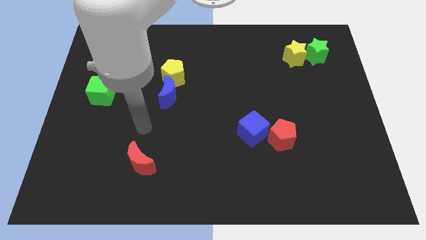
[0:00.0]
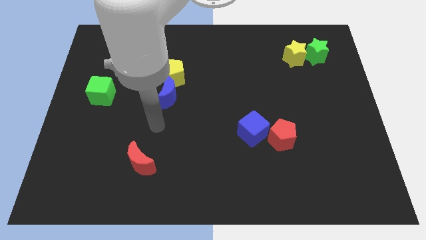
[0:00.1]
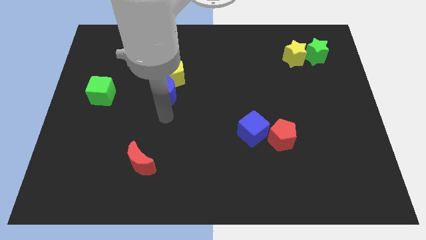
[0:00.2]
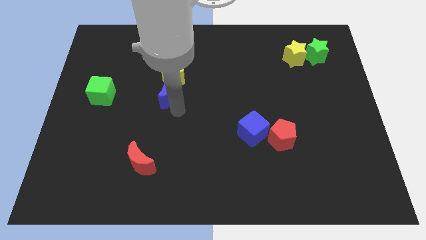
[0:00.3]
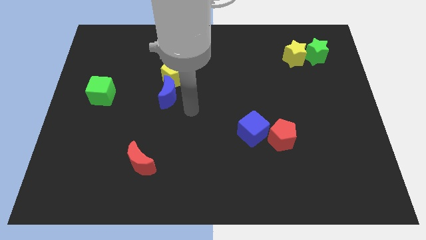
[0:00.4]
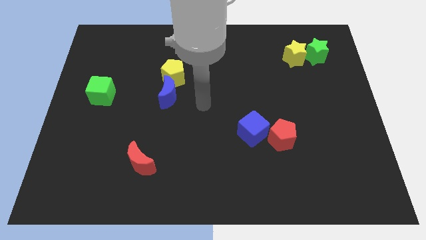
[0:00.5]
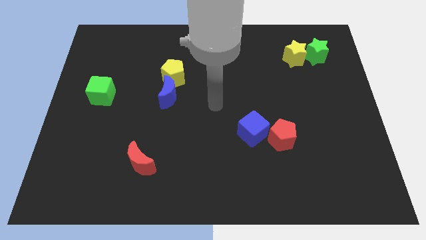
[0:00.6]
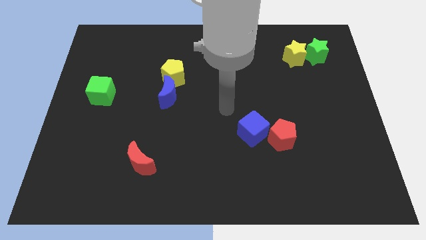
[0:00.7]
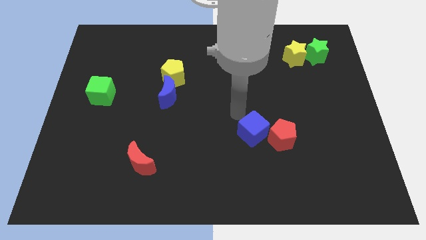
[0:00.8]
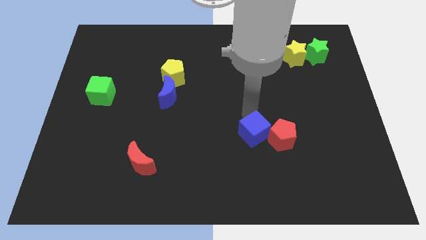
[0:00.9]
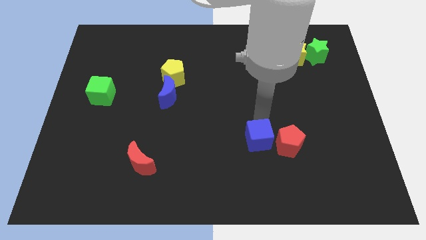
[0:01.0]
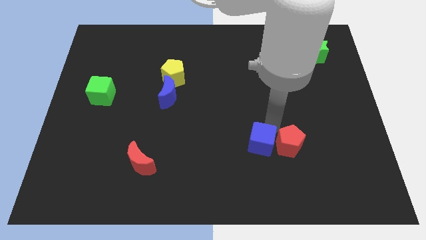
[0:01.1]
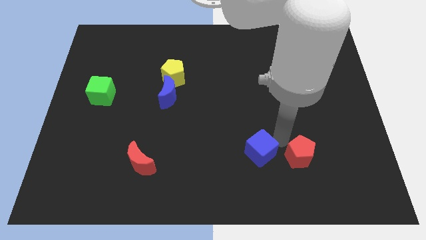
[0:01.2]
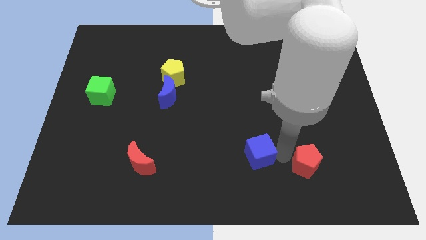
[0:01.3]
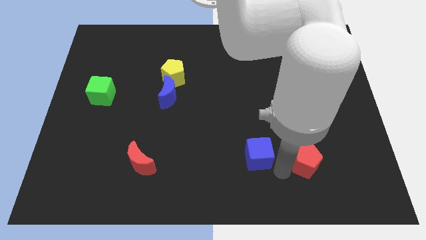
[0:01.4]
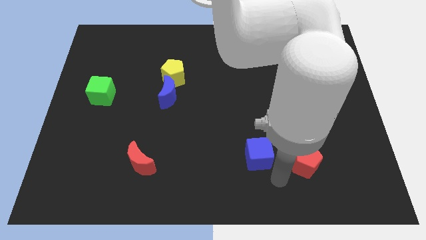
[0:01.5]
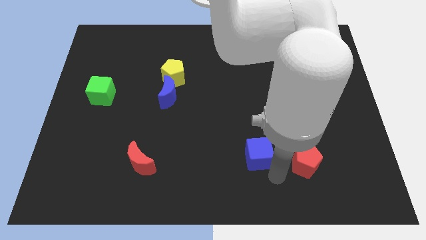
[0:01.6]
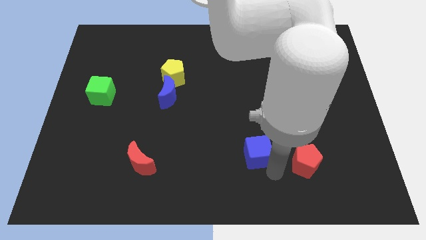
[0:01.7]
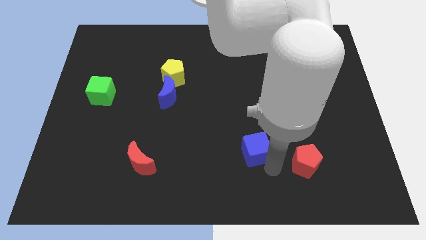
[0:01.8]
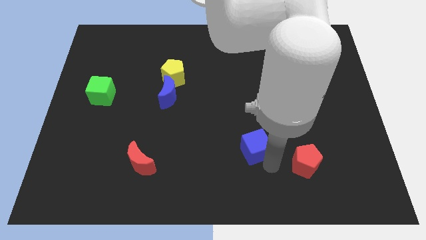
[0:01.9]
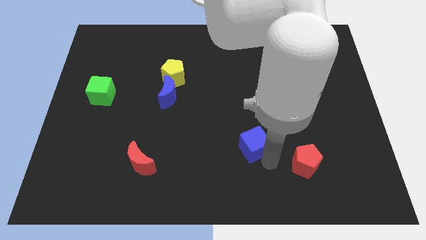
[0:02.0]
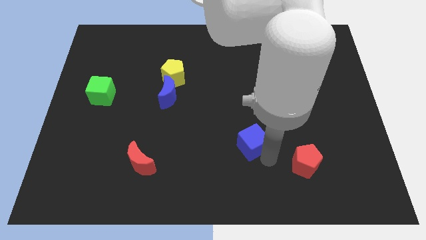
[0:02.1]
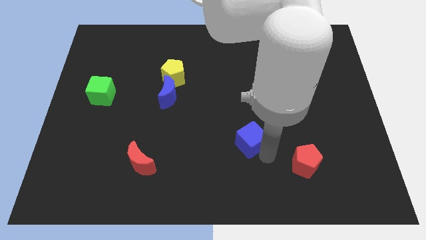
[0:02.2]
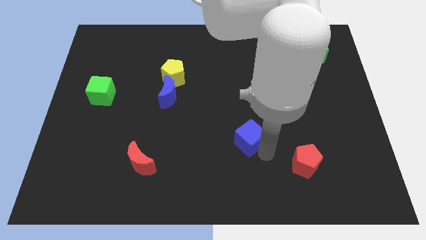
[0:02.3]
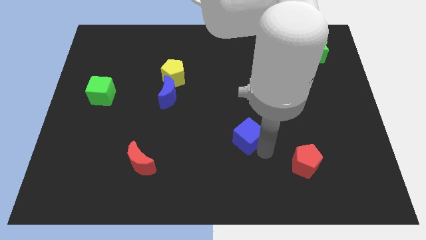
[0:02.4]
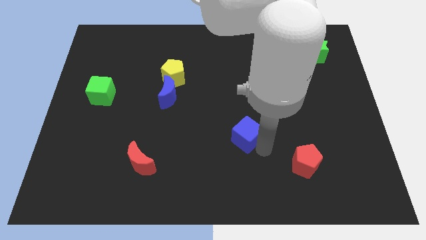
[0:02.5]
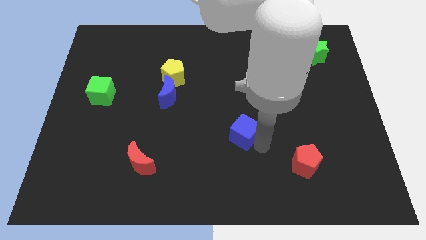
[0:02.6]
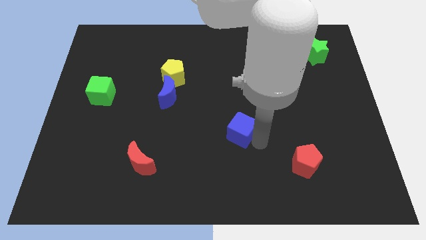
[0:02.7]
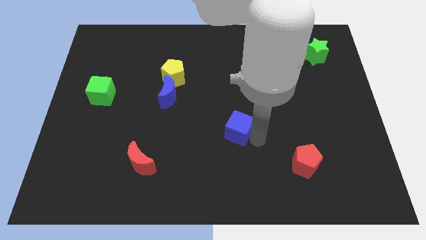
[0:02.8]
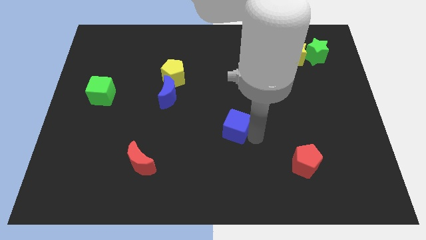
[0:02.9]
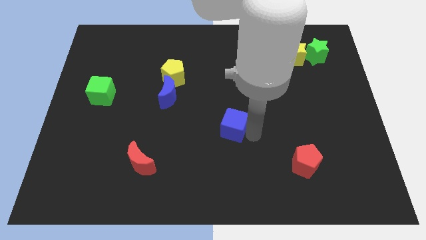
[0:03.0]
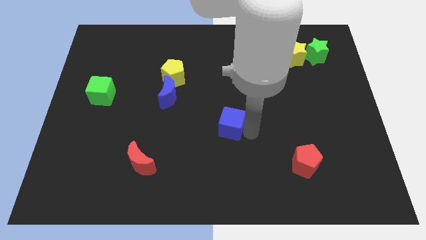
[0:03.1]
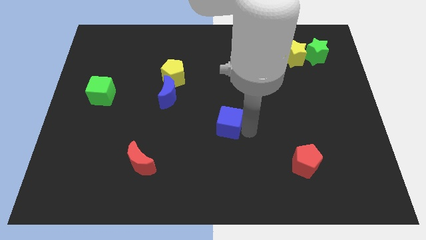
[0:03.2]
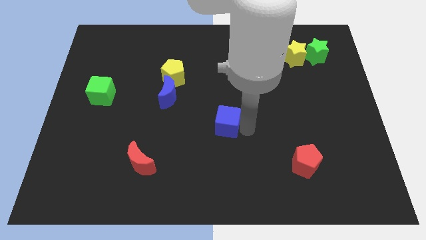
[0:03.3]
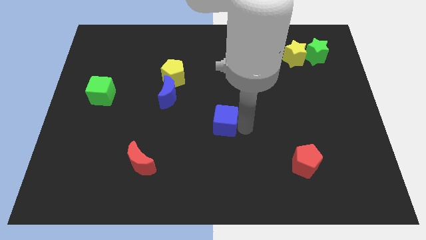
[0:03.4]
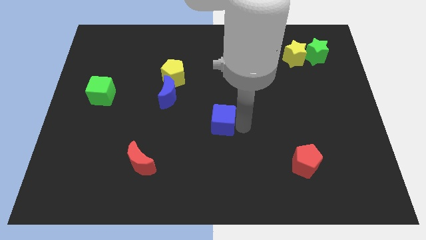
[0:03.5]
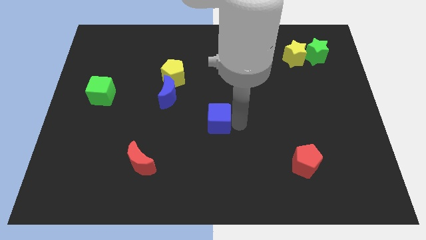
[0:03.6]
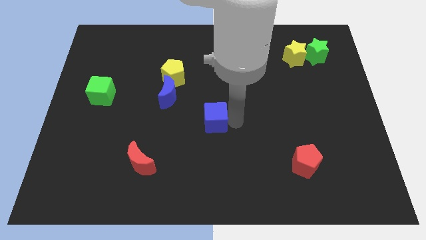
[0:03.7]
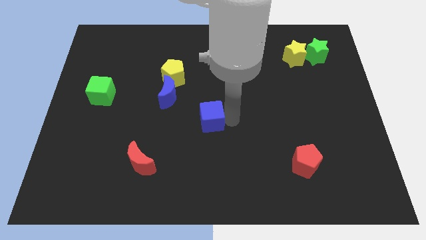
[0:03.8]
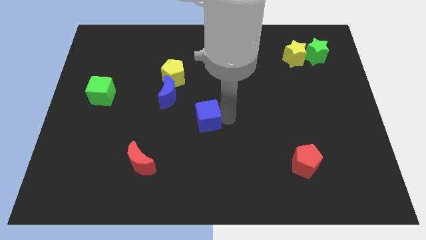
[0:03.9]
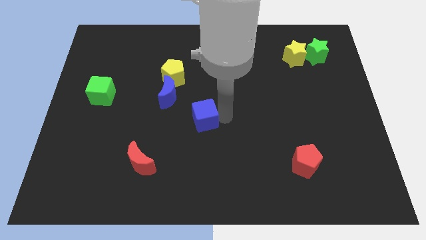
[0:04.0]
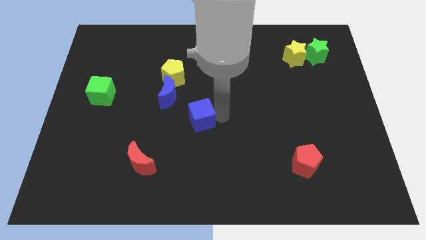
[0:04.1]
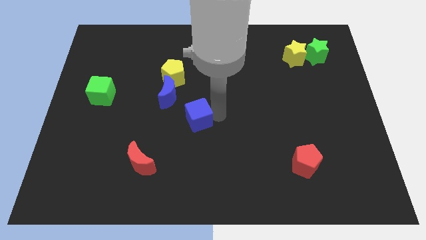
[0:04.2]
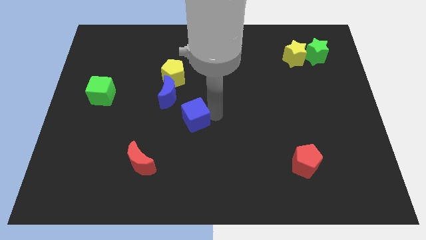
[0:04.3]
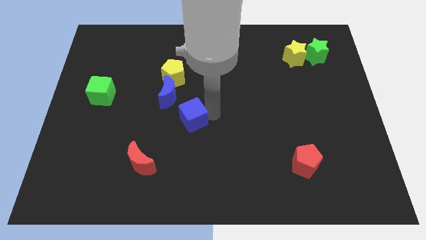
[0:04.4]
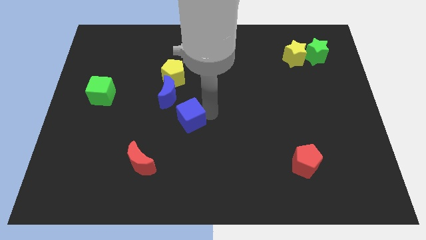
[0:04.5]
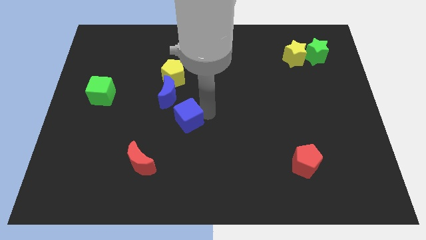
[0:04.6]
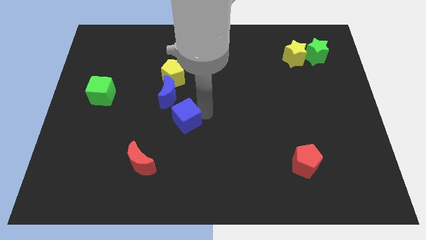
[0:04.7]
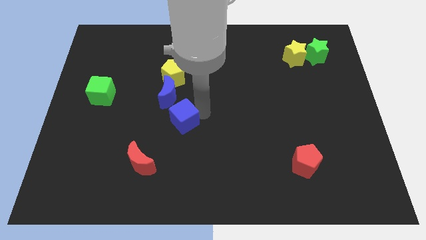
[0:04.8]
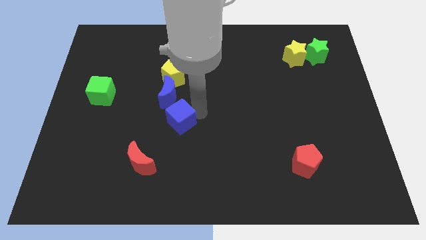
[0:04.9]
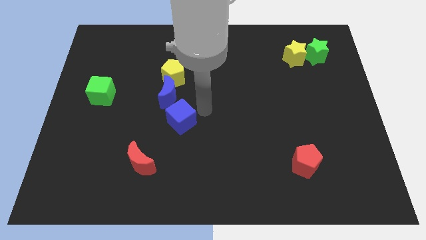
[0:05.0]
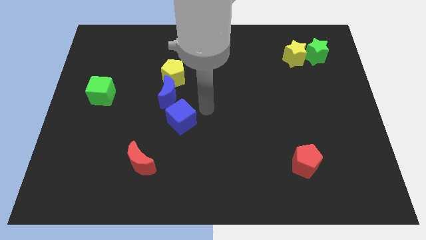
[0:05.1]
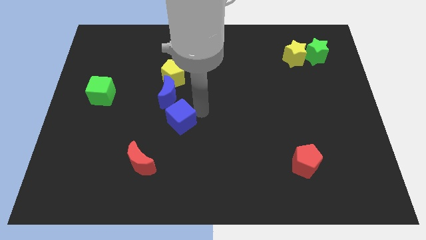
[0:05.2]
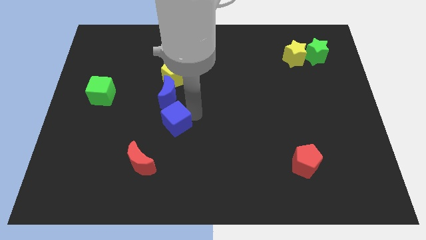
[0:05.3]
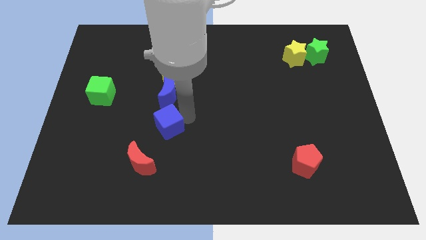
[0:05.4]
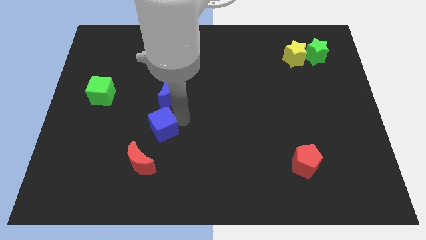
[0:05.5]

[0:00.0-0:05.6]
push the blue cube to the left

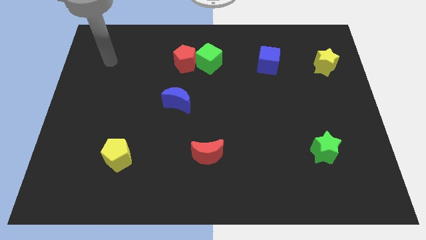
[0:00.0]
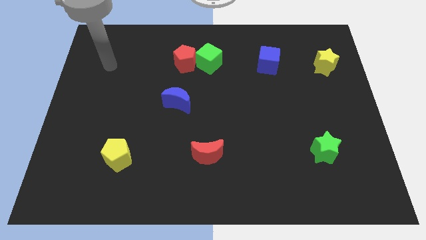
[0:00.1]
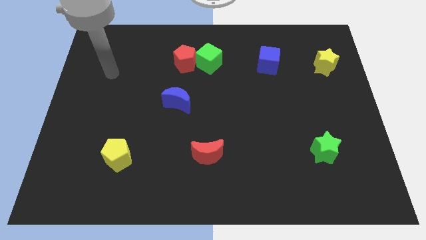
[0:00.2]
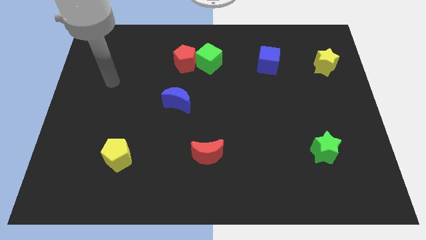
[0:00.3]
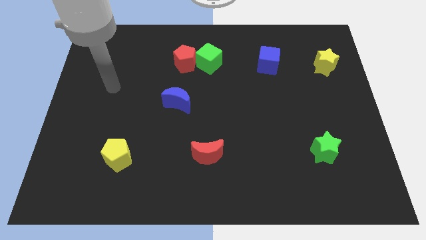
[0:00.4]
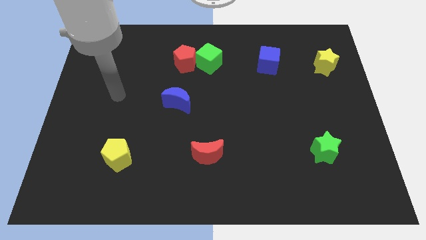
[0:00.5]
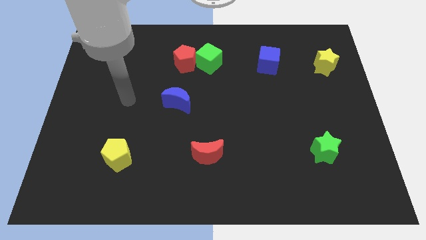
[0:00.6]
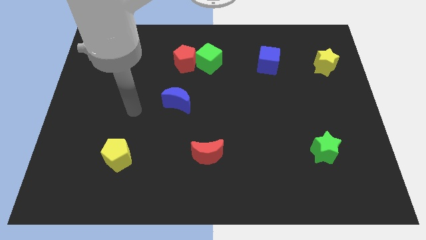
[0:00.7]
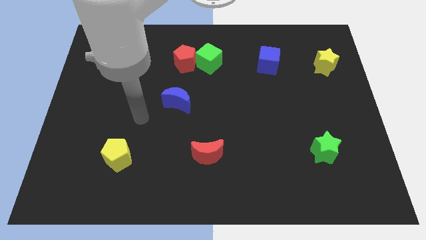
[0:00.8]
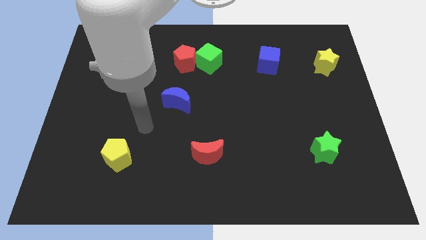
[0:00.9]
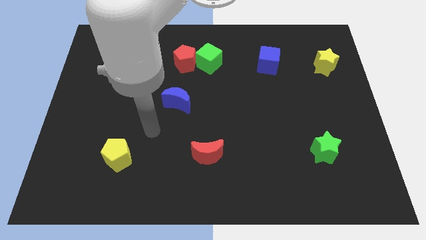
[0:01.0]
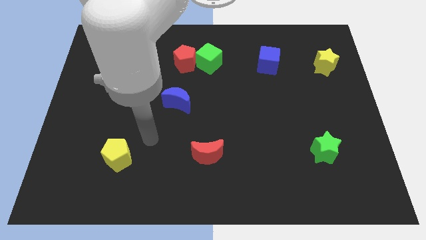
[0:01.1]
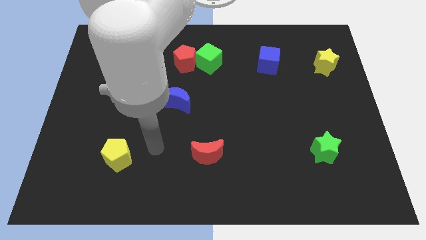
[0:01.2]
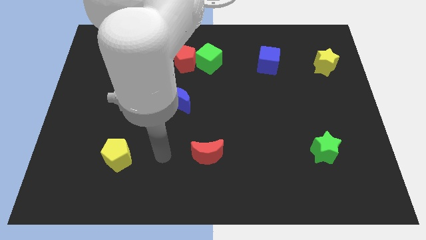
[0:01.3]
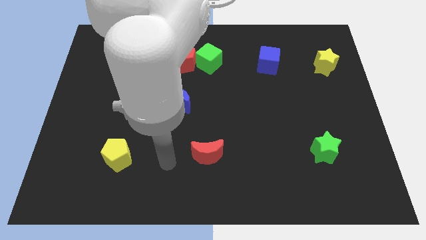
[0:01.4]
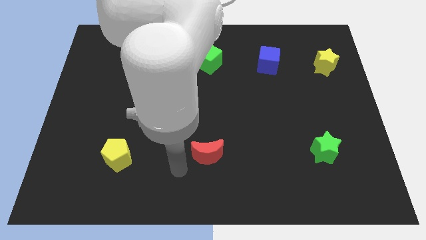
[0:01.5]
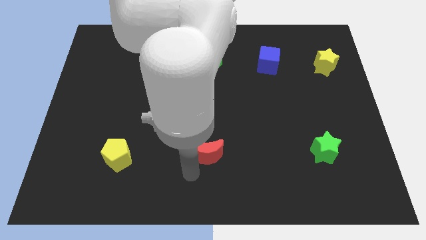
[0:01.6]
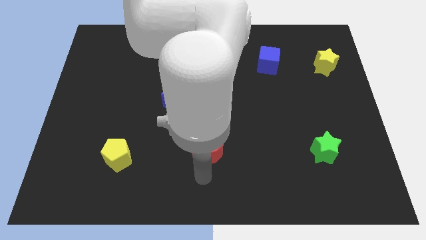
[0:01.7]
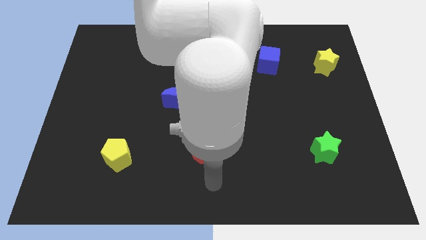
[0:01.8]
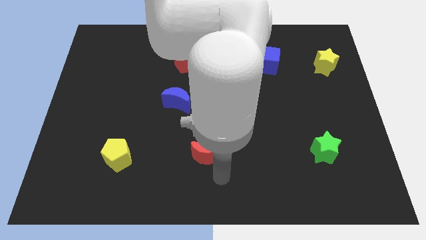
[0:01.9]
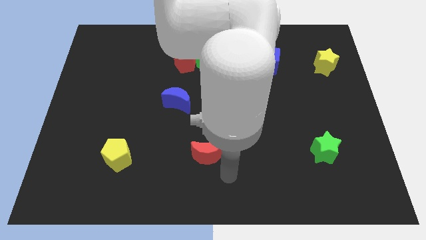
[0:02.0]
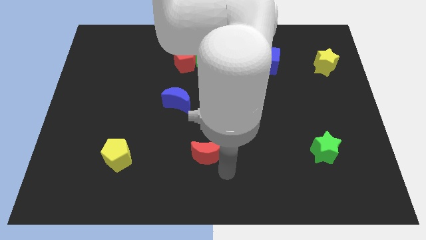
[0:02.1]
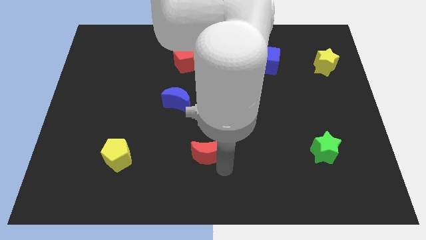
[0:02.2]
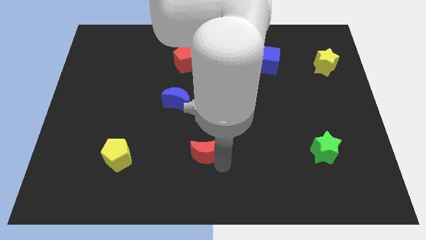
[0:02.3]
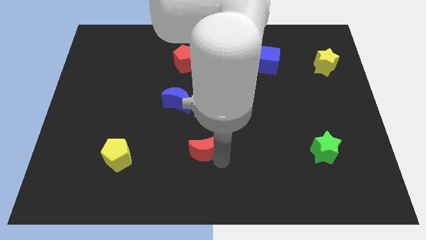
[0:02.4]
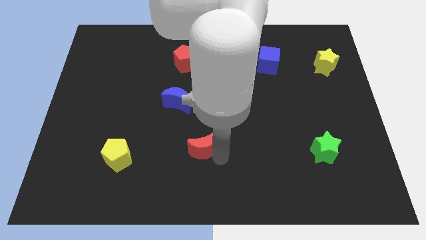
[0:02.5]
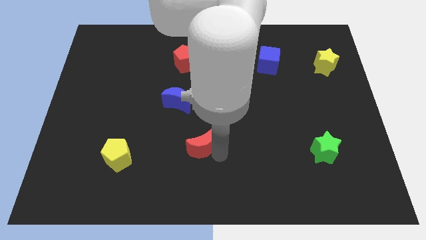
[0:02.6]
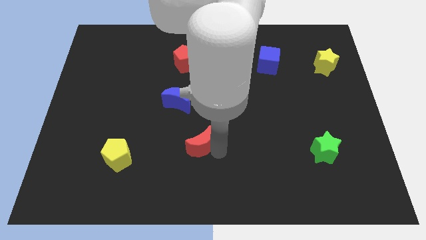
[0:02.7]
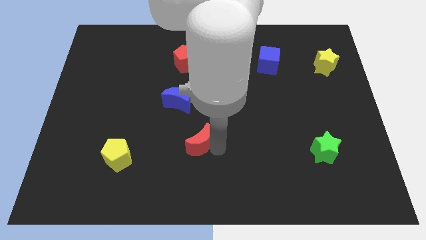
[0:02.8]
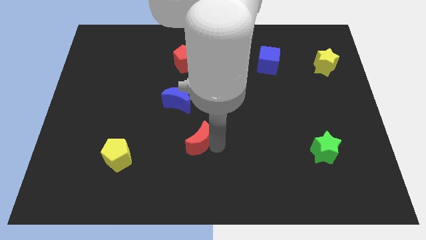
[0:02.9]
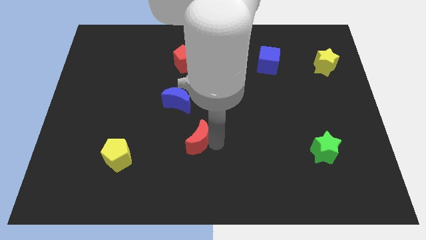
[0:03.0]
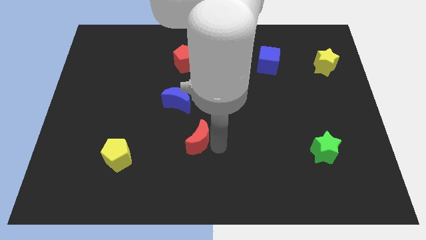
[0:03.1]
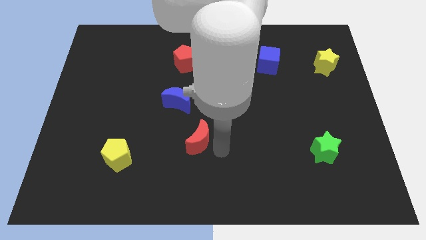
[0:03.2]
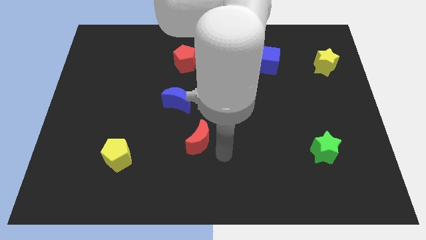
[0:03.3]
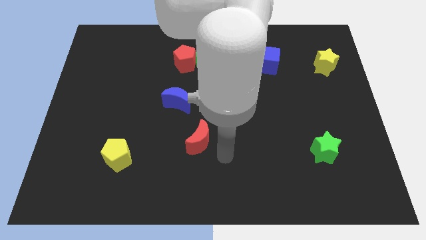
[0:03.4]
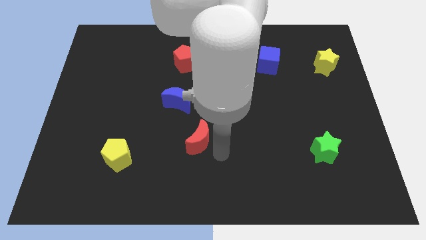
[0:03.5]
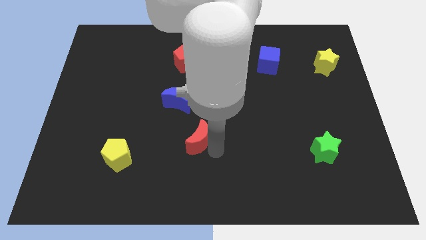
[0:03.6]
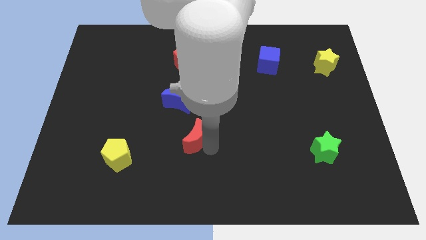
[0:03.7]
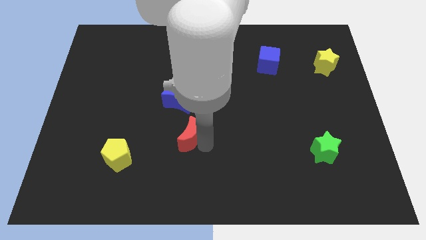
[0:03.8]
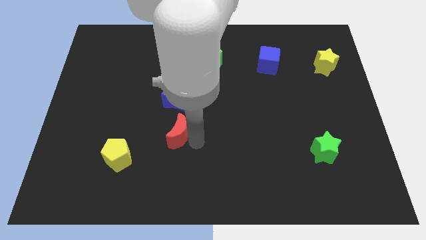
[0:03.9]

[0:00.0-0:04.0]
move the red moon somewhat up and left diagonally
